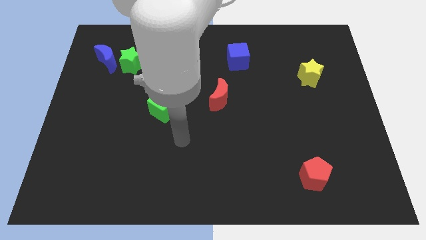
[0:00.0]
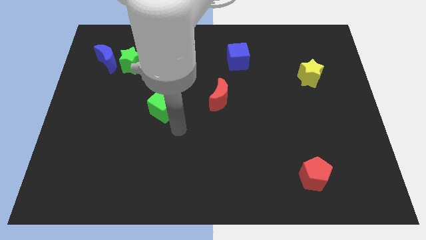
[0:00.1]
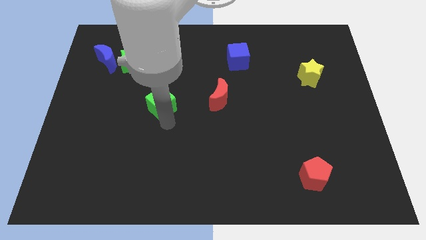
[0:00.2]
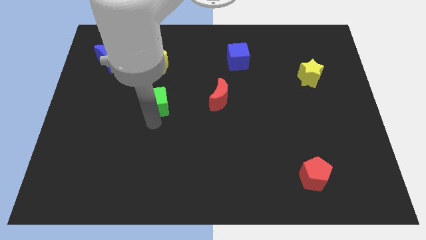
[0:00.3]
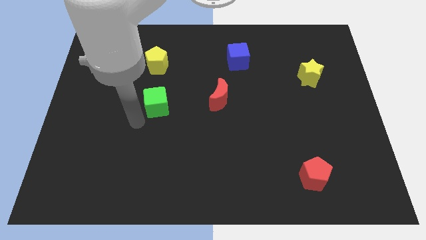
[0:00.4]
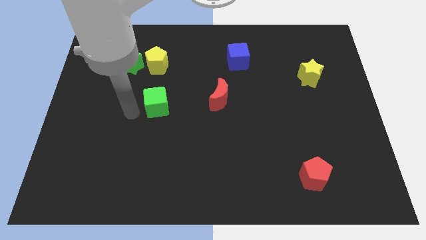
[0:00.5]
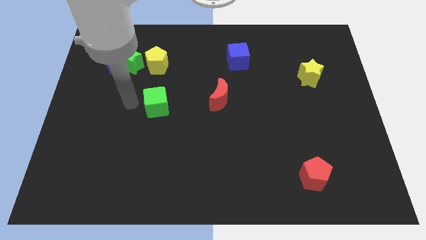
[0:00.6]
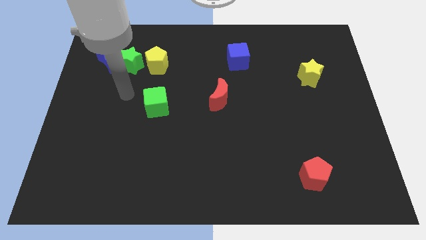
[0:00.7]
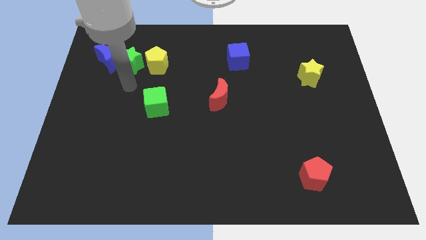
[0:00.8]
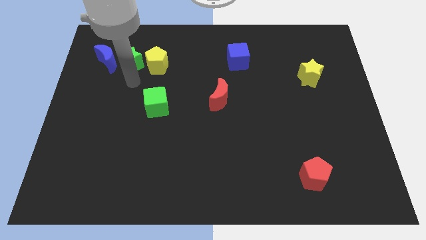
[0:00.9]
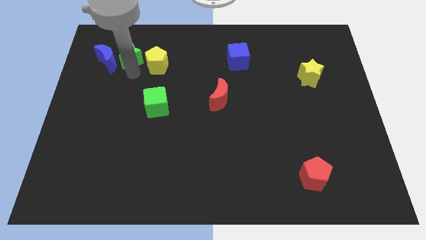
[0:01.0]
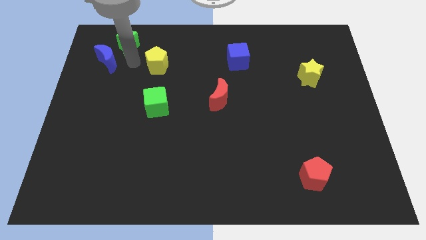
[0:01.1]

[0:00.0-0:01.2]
pull the yellow pentagon apart from the green star

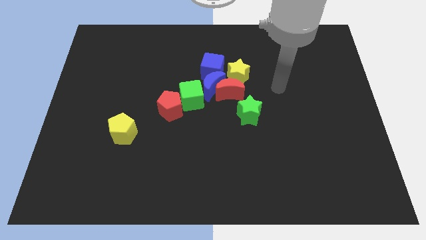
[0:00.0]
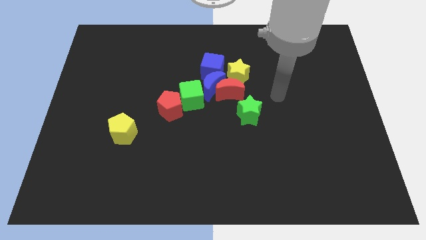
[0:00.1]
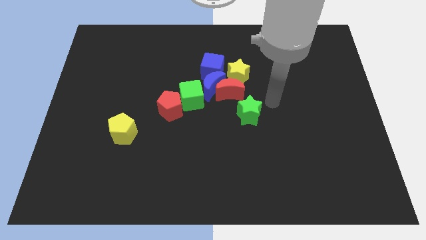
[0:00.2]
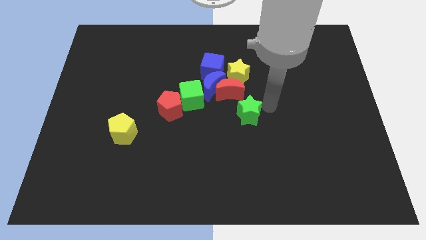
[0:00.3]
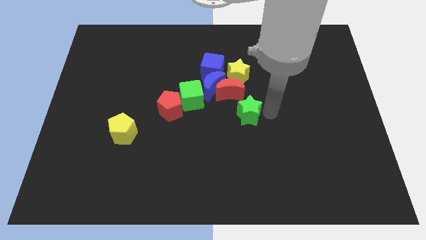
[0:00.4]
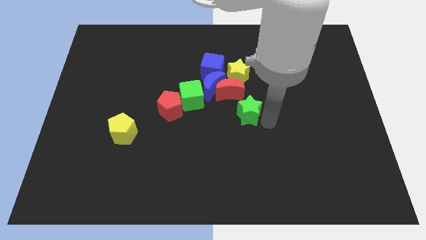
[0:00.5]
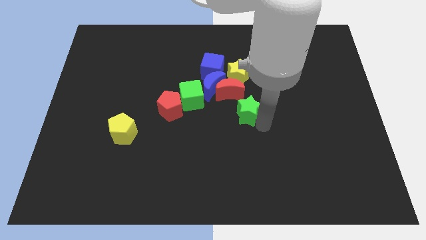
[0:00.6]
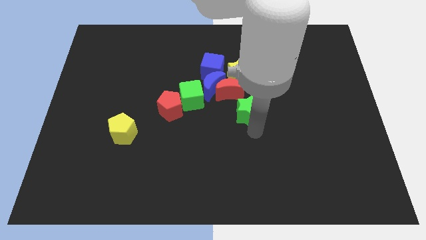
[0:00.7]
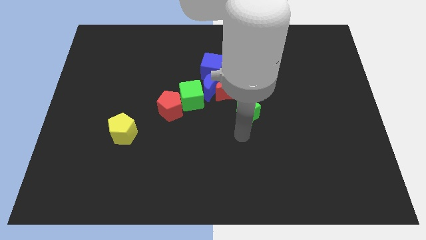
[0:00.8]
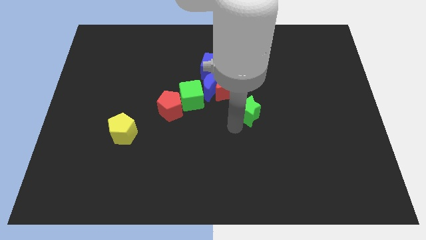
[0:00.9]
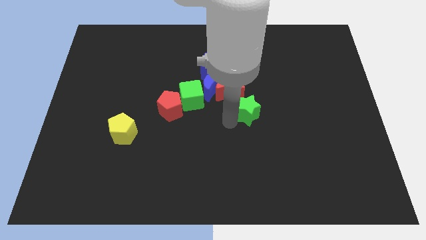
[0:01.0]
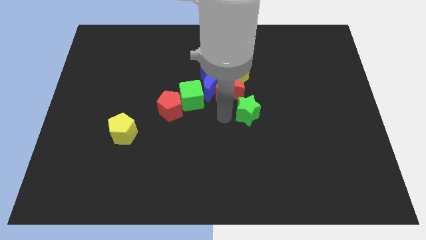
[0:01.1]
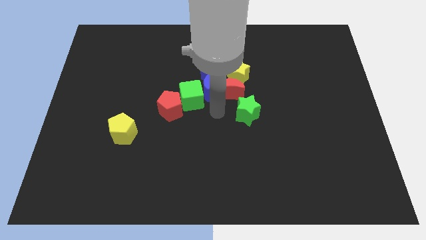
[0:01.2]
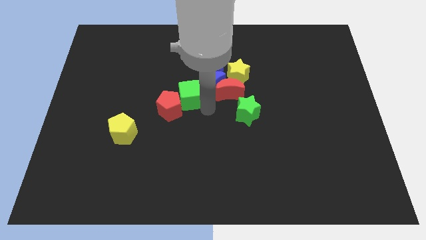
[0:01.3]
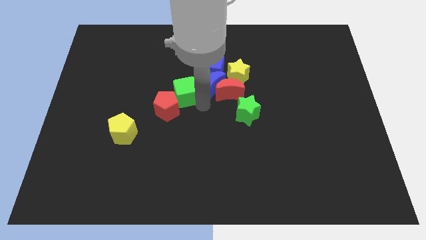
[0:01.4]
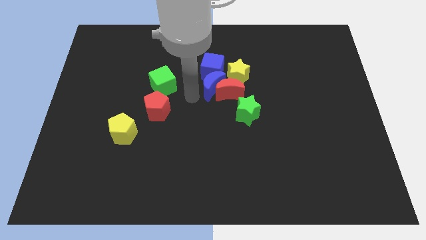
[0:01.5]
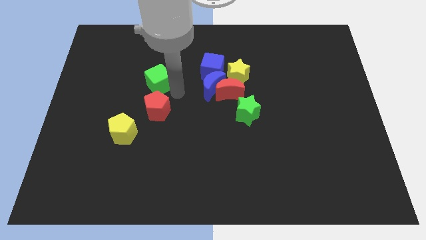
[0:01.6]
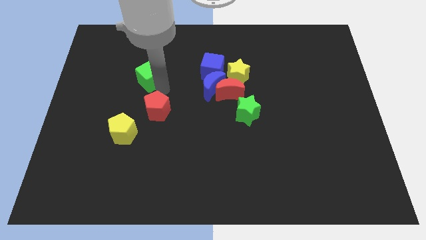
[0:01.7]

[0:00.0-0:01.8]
move the red pentagon away from the green cube

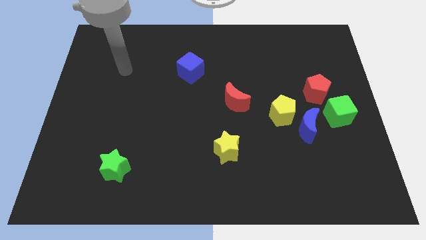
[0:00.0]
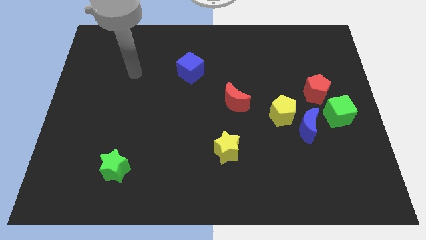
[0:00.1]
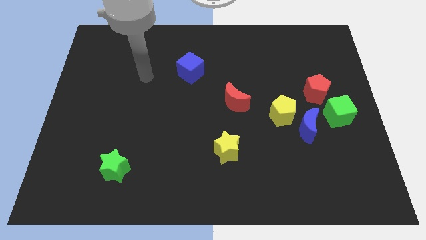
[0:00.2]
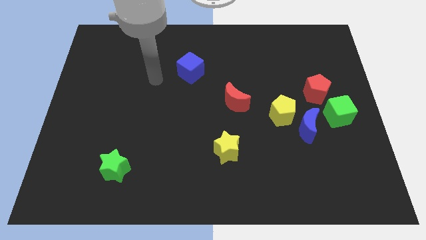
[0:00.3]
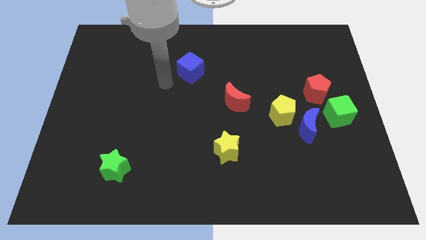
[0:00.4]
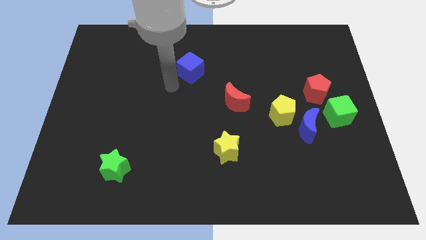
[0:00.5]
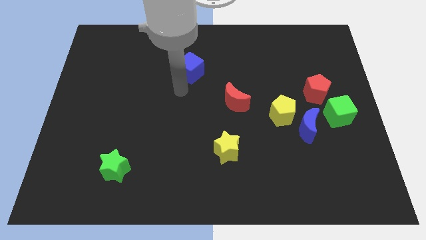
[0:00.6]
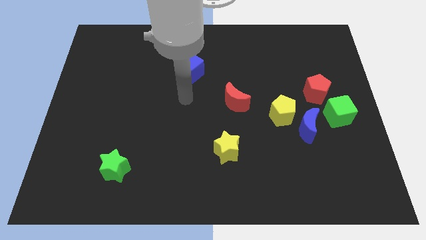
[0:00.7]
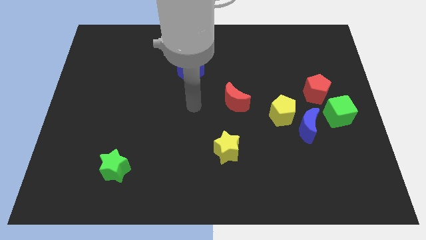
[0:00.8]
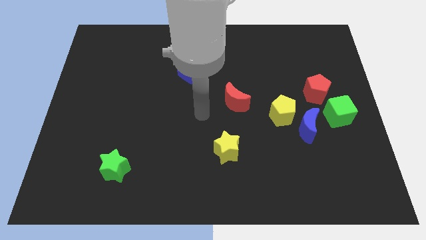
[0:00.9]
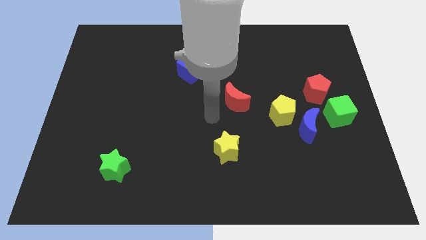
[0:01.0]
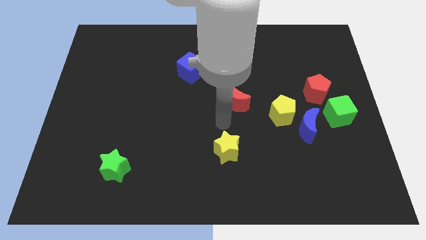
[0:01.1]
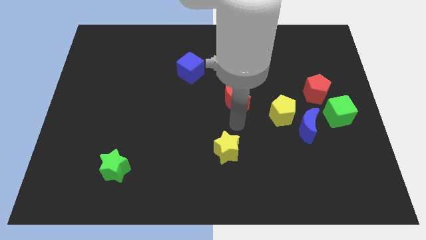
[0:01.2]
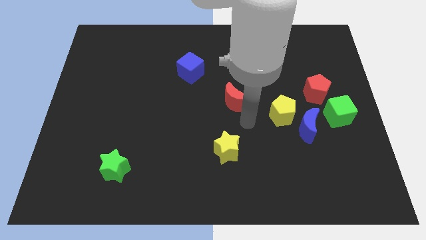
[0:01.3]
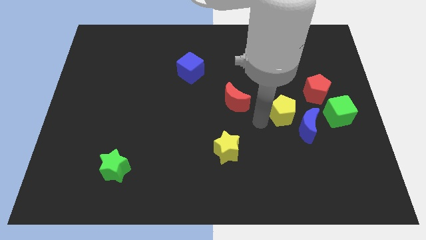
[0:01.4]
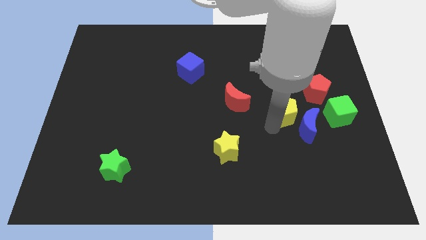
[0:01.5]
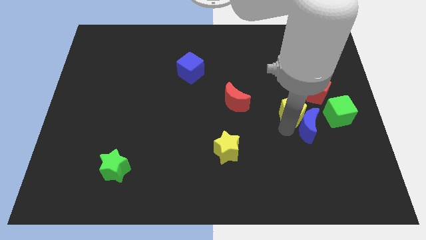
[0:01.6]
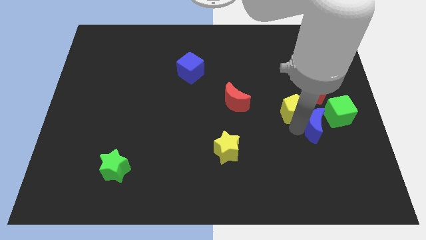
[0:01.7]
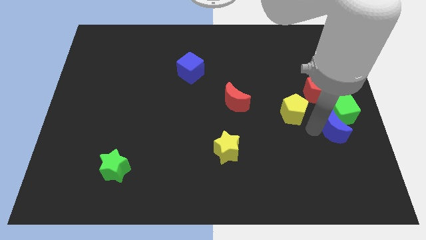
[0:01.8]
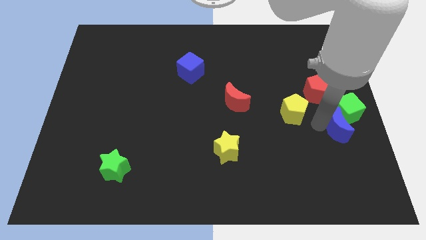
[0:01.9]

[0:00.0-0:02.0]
separate the yellow pentagon from the blue moon

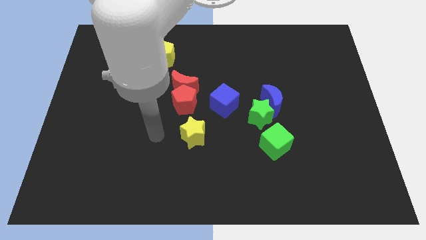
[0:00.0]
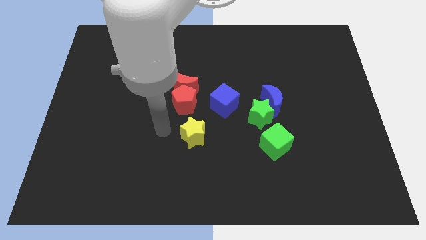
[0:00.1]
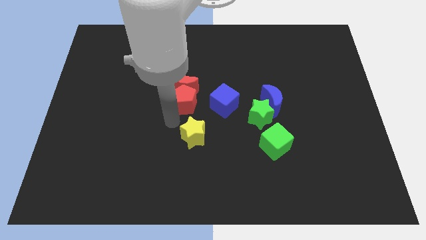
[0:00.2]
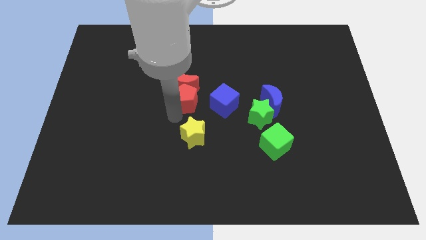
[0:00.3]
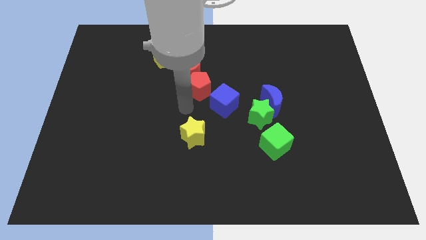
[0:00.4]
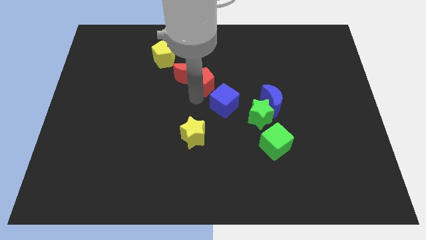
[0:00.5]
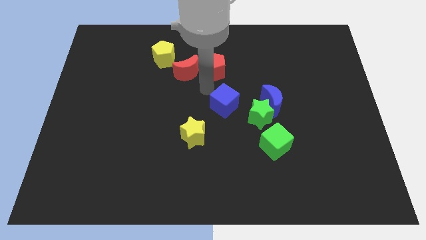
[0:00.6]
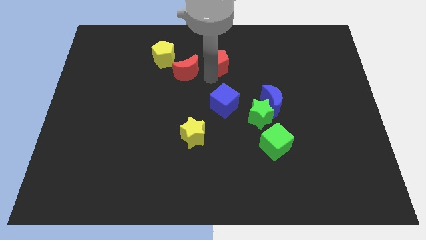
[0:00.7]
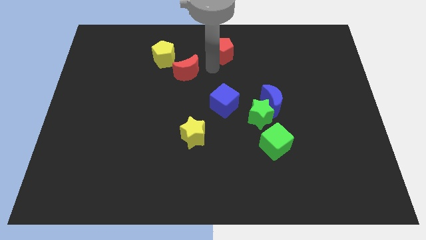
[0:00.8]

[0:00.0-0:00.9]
pull the red moon apart from the red pentagon

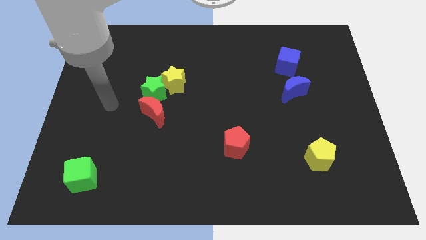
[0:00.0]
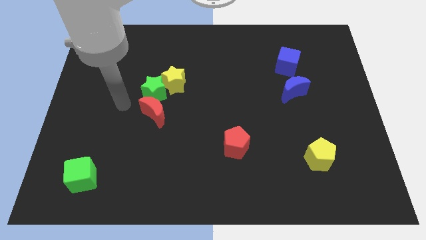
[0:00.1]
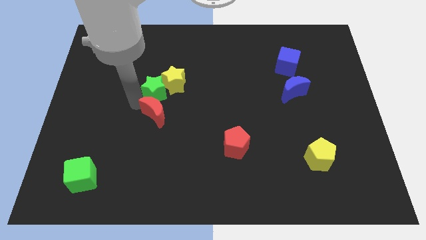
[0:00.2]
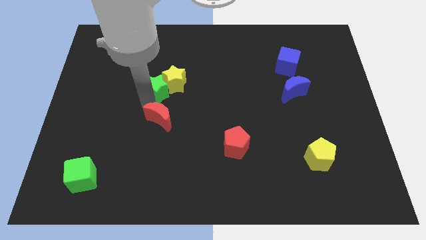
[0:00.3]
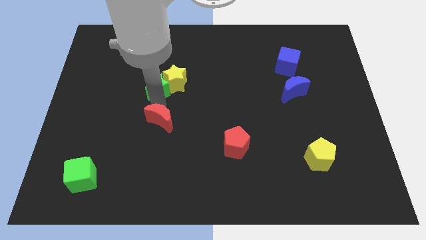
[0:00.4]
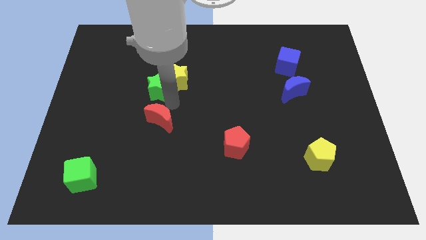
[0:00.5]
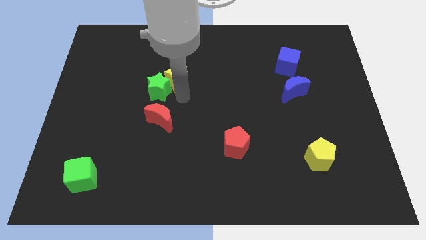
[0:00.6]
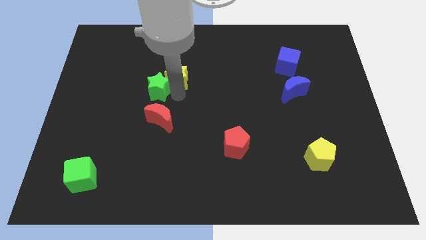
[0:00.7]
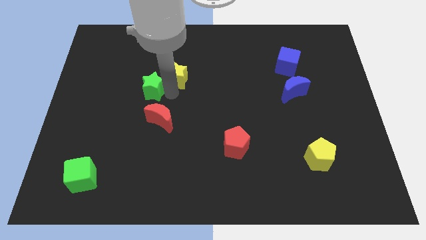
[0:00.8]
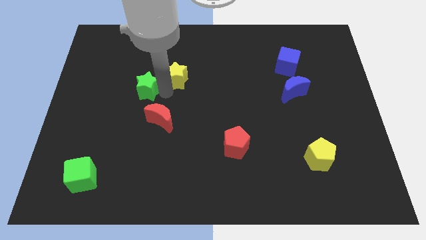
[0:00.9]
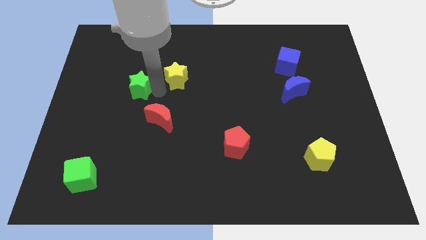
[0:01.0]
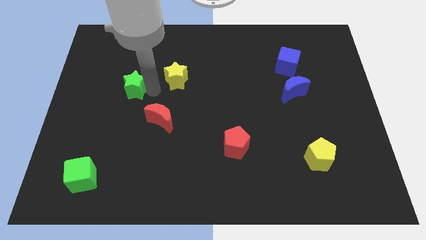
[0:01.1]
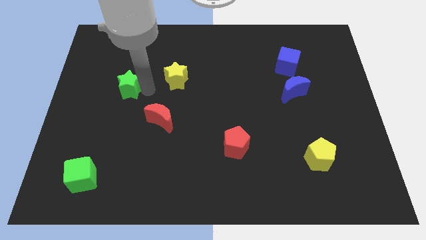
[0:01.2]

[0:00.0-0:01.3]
pull the green star apart from the yellow star and red moon

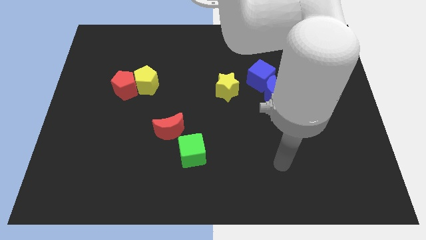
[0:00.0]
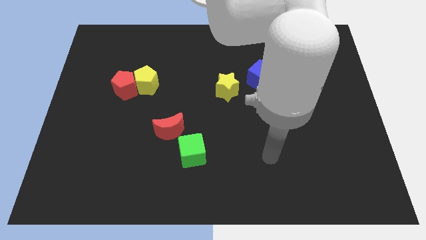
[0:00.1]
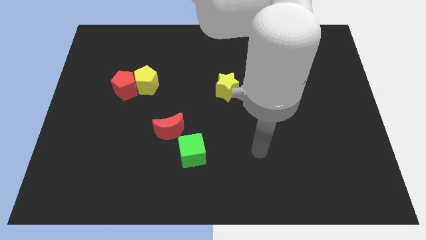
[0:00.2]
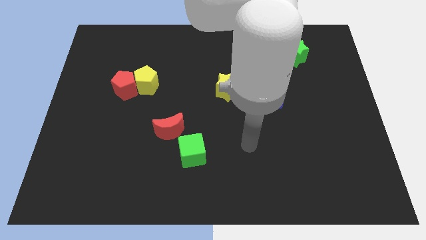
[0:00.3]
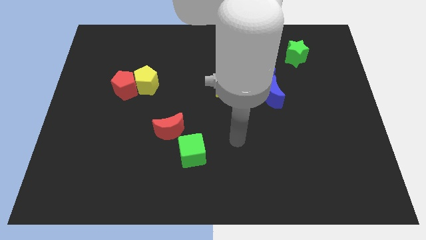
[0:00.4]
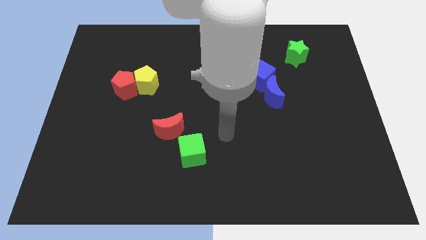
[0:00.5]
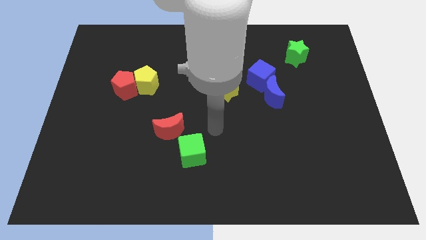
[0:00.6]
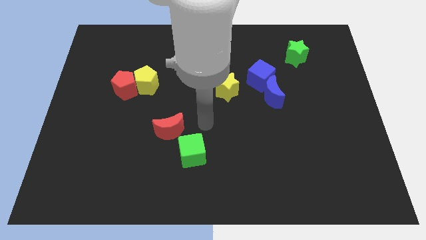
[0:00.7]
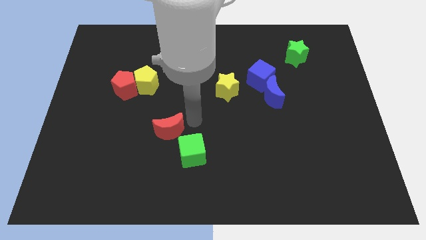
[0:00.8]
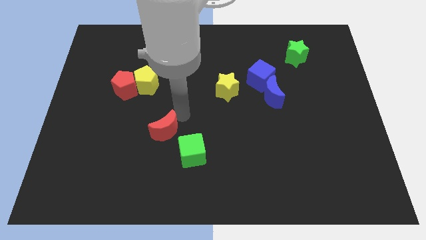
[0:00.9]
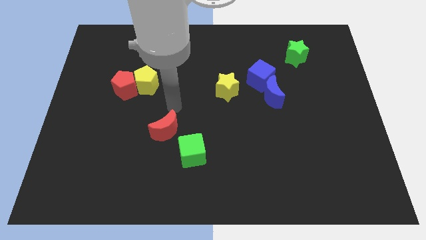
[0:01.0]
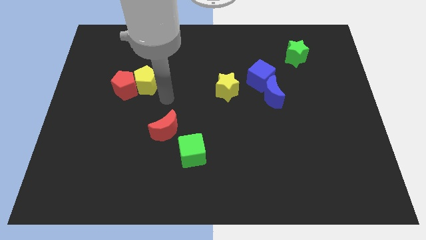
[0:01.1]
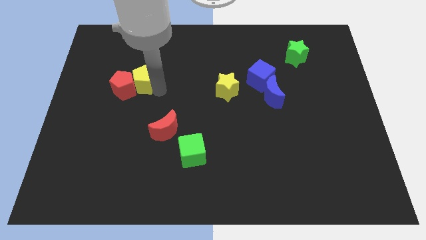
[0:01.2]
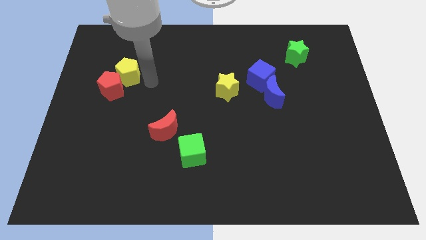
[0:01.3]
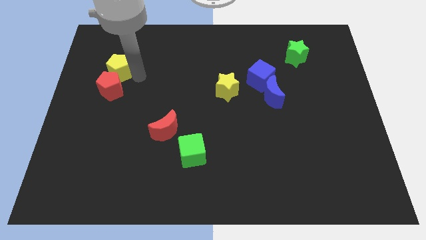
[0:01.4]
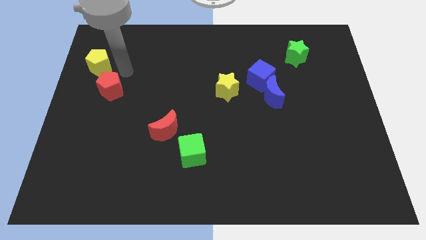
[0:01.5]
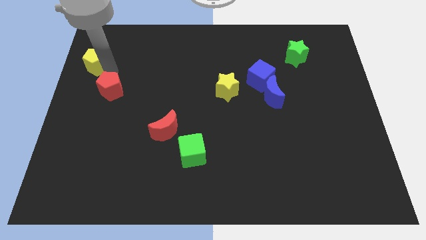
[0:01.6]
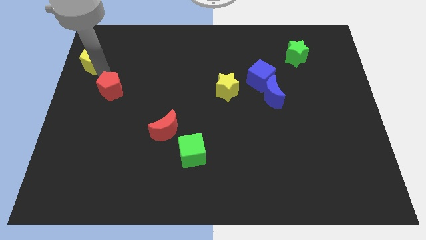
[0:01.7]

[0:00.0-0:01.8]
separate the red pentagon from the yellow pentagon

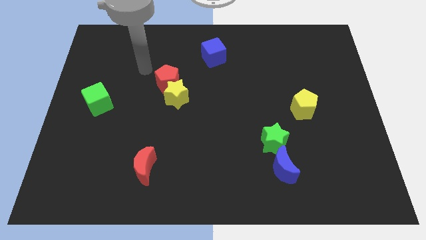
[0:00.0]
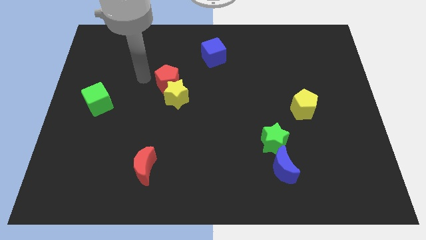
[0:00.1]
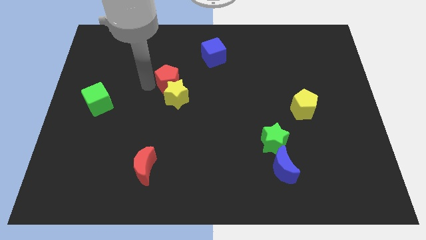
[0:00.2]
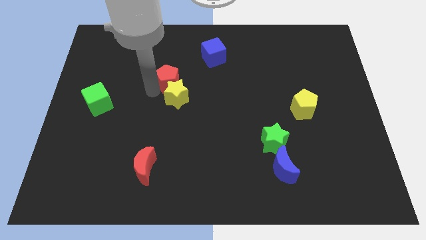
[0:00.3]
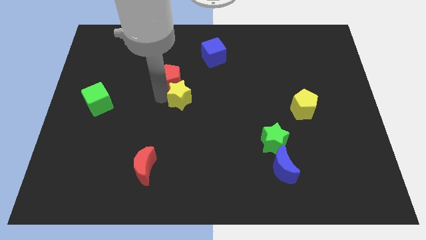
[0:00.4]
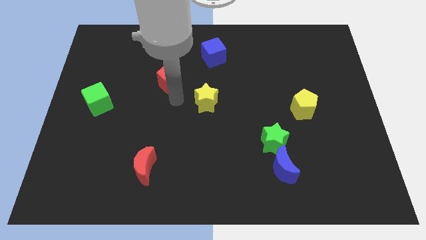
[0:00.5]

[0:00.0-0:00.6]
separate the red pentagon from the yellow star
